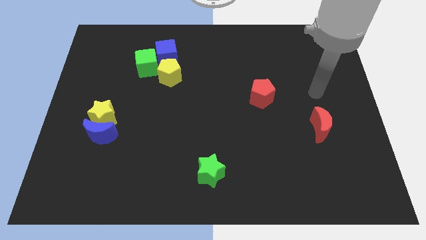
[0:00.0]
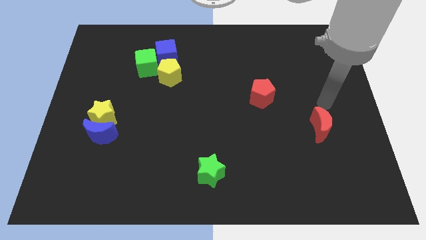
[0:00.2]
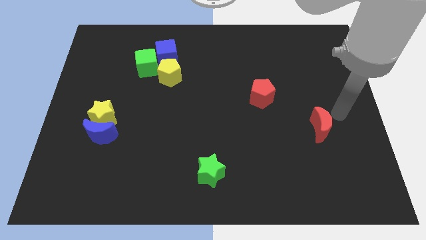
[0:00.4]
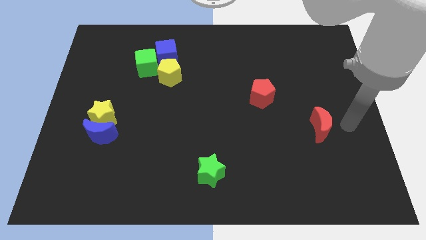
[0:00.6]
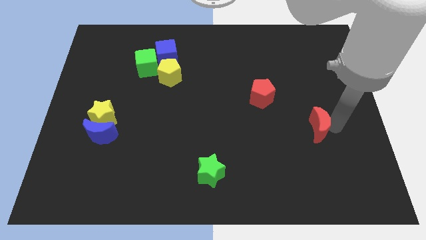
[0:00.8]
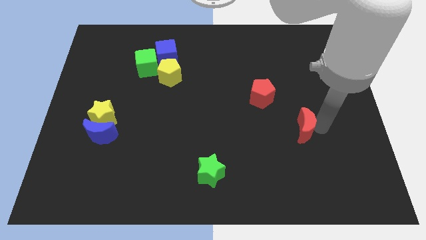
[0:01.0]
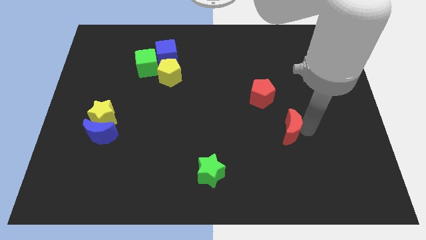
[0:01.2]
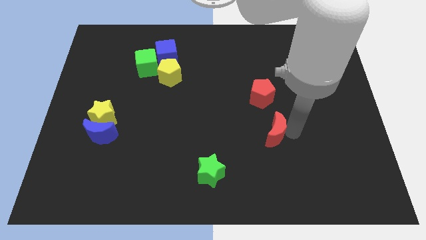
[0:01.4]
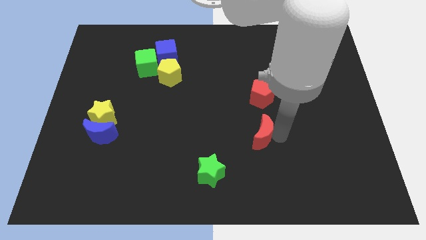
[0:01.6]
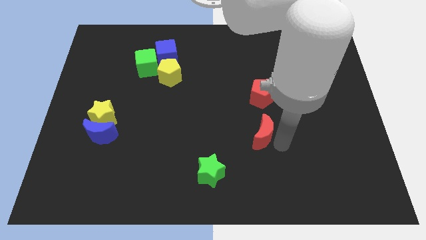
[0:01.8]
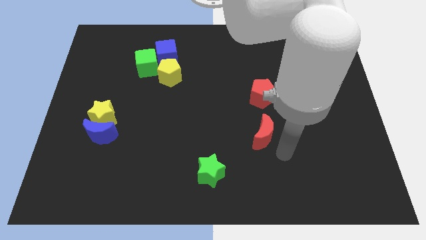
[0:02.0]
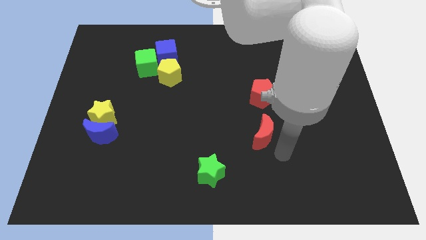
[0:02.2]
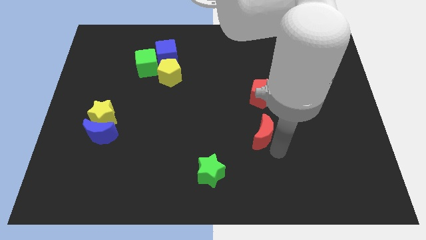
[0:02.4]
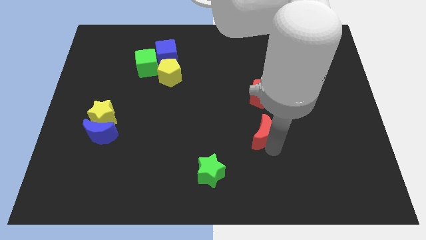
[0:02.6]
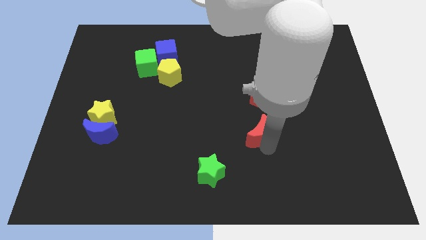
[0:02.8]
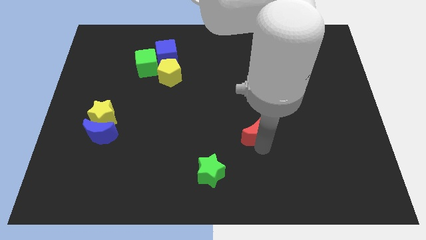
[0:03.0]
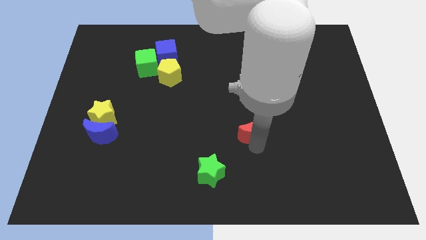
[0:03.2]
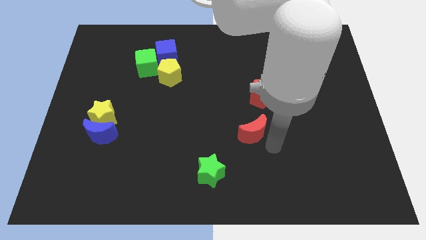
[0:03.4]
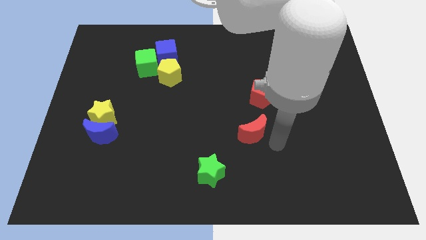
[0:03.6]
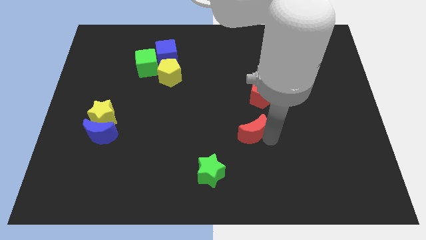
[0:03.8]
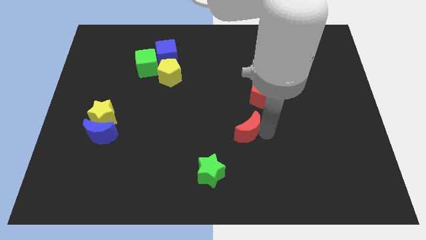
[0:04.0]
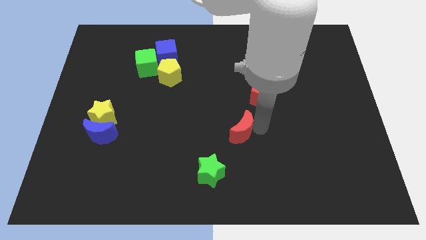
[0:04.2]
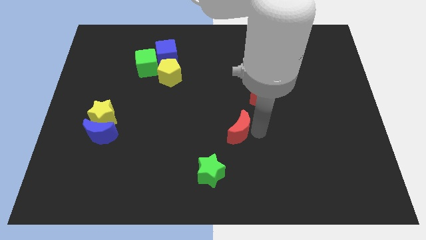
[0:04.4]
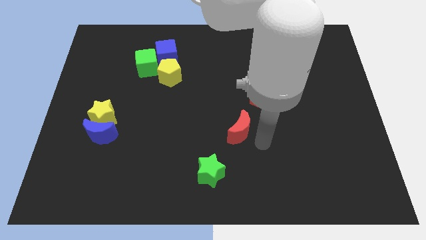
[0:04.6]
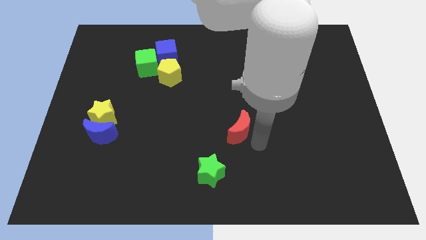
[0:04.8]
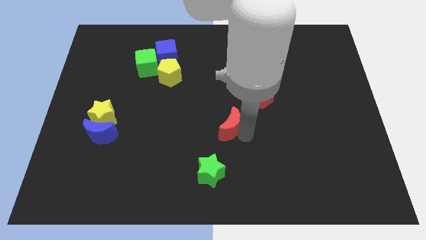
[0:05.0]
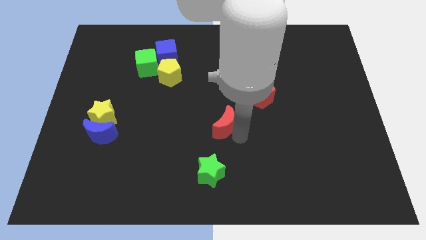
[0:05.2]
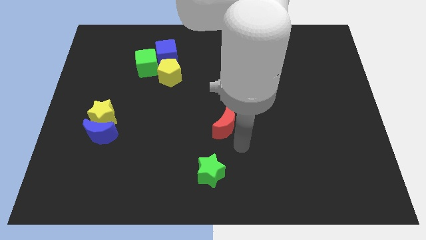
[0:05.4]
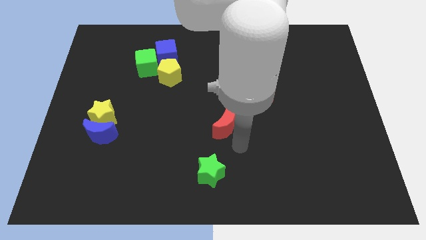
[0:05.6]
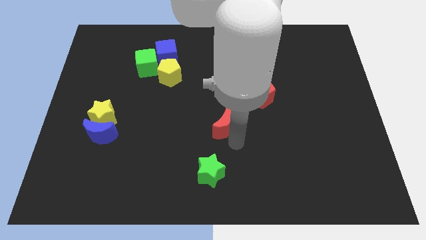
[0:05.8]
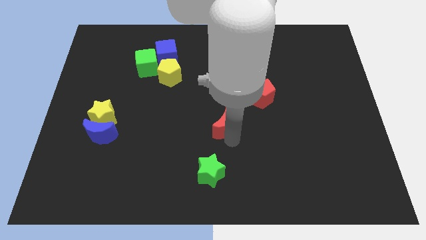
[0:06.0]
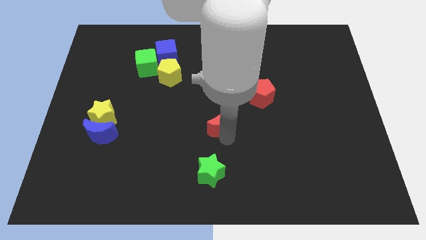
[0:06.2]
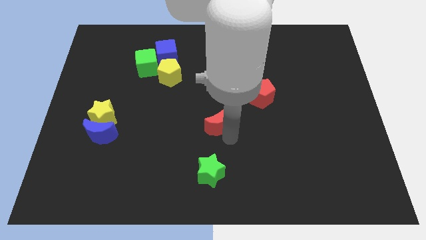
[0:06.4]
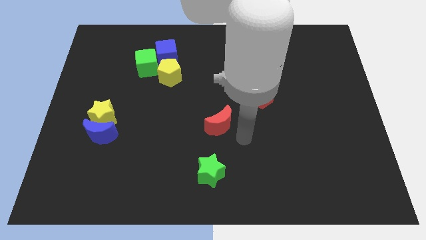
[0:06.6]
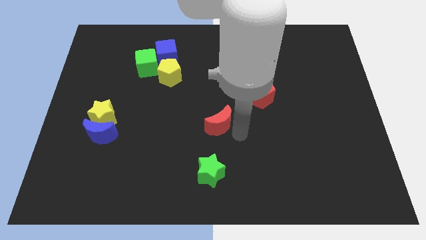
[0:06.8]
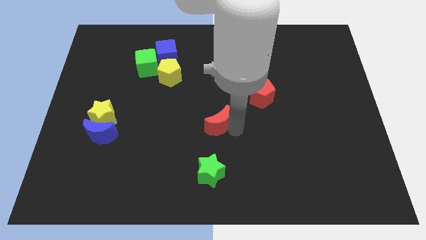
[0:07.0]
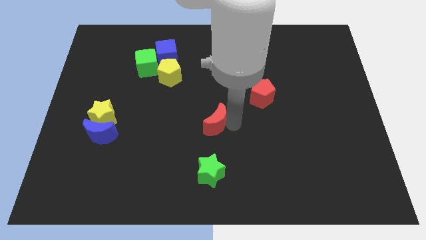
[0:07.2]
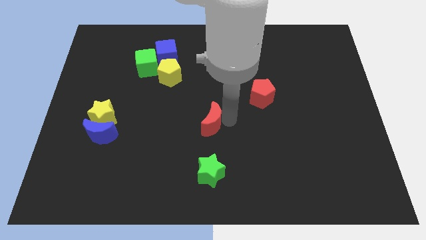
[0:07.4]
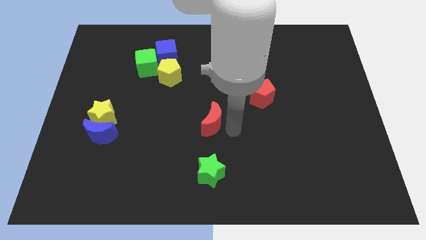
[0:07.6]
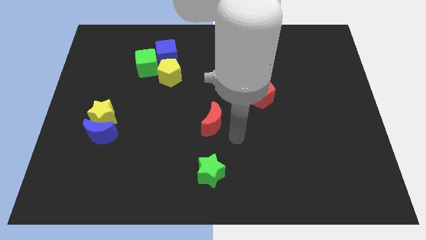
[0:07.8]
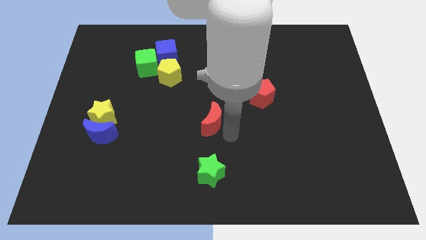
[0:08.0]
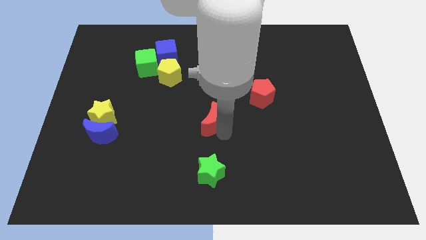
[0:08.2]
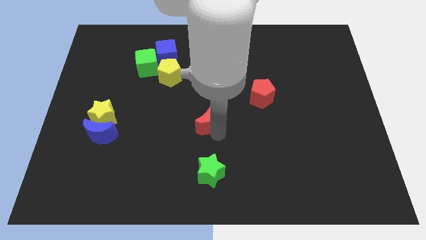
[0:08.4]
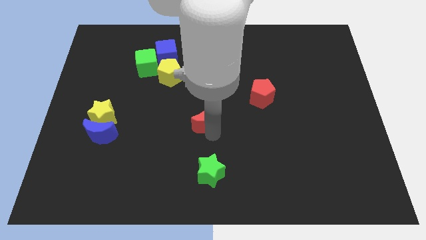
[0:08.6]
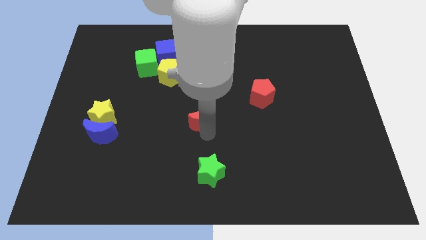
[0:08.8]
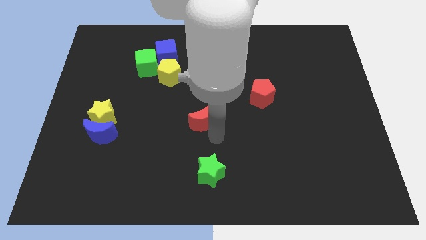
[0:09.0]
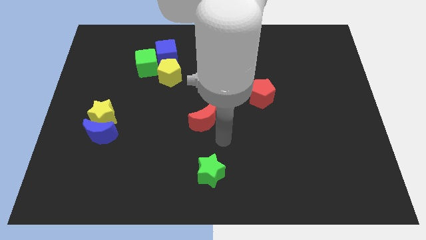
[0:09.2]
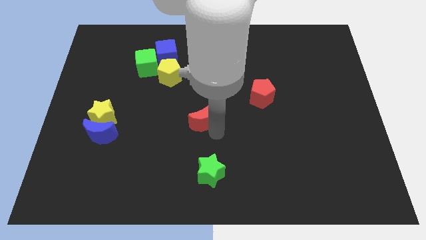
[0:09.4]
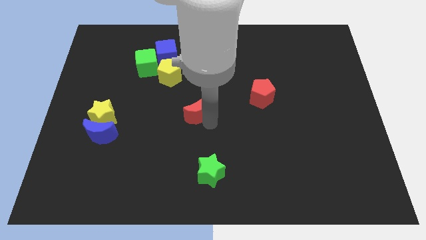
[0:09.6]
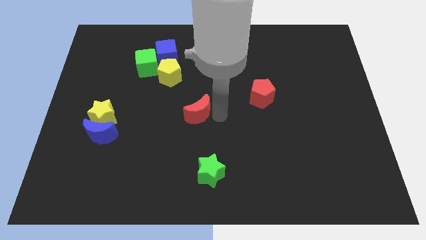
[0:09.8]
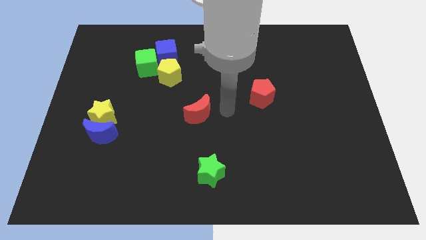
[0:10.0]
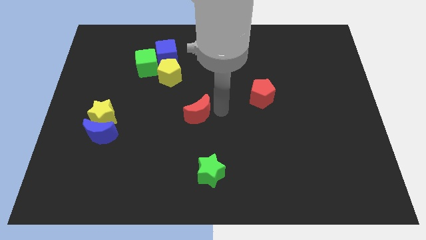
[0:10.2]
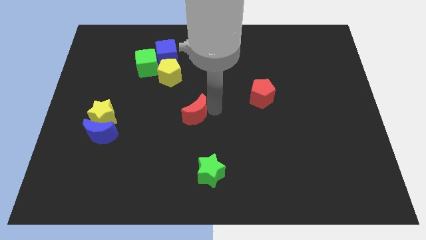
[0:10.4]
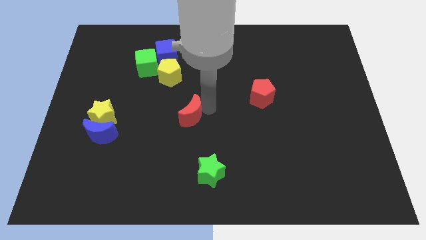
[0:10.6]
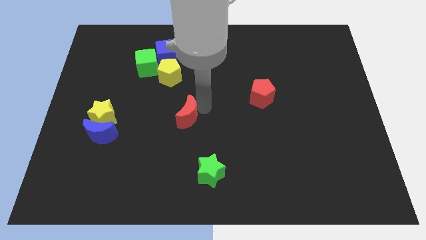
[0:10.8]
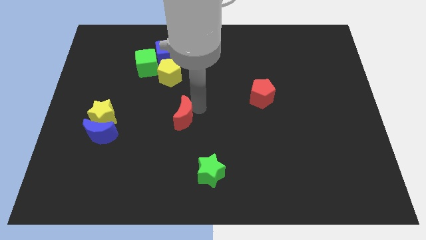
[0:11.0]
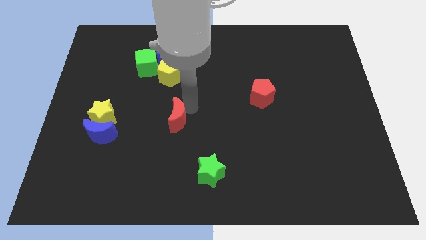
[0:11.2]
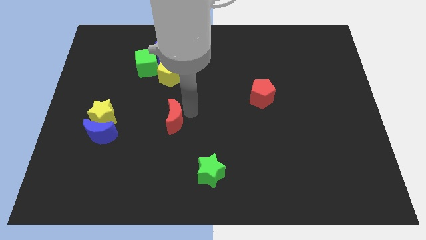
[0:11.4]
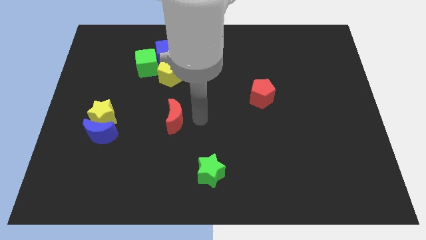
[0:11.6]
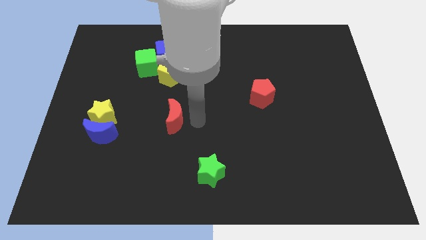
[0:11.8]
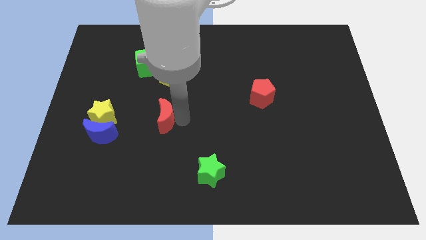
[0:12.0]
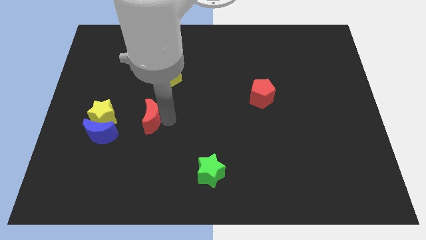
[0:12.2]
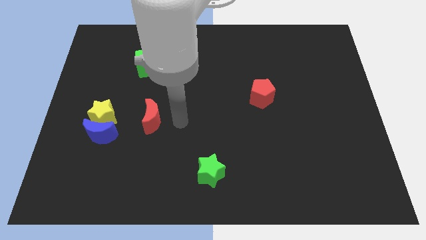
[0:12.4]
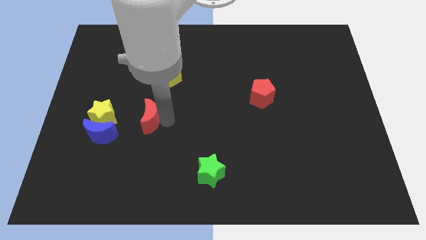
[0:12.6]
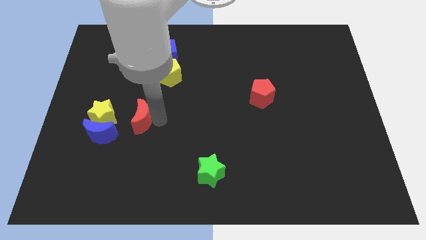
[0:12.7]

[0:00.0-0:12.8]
move the red moon to the top right of the blue moon

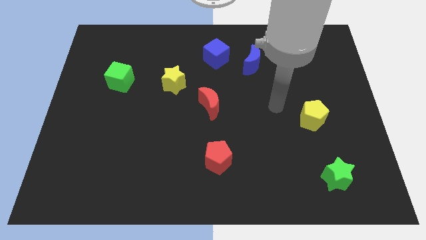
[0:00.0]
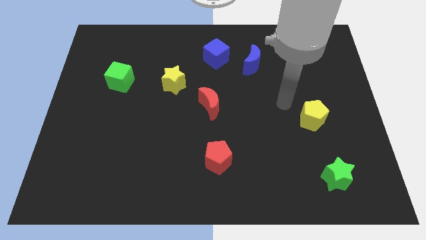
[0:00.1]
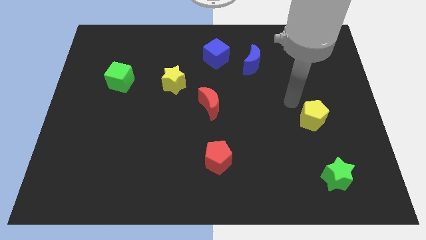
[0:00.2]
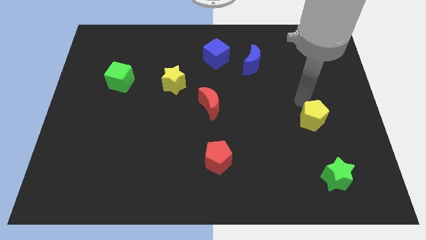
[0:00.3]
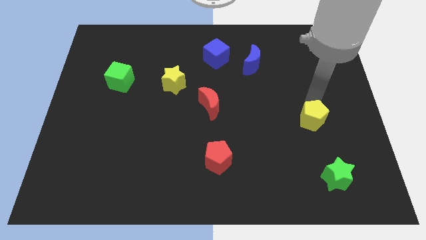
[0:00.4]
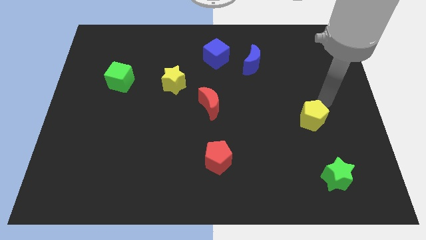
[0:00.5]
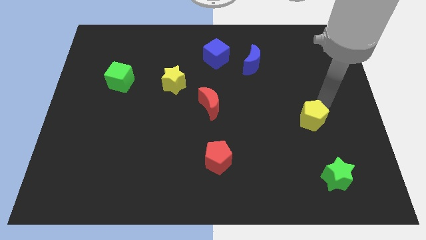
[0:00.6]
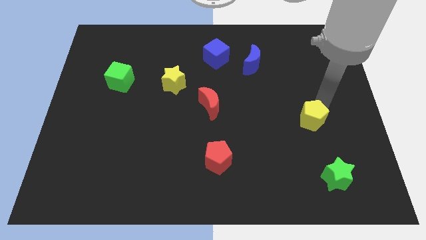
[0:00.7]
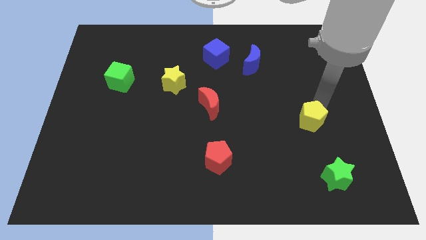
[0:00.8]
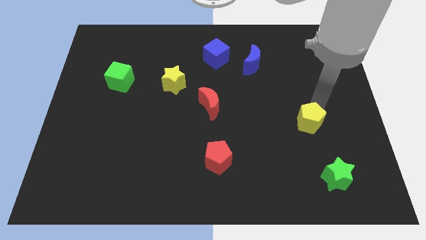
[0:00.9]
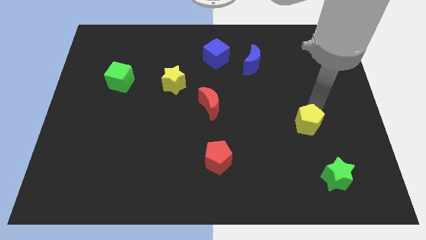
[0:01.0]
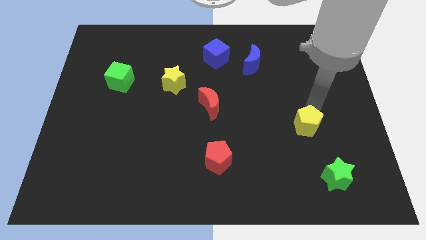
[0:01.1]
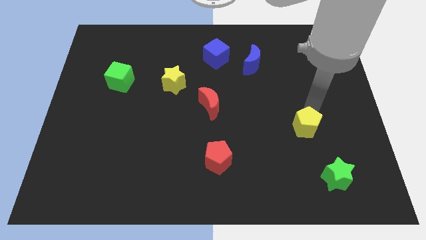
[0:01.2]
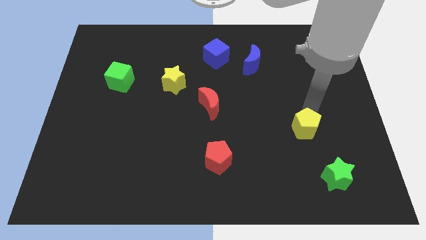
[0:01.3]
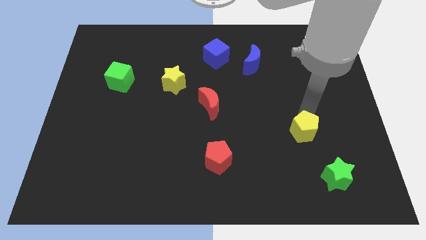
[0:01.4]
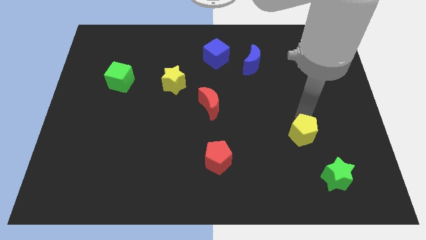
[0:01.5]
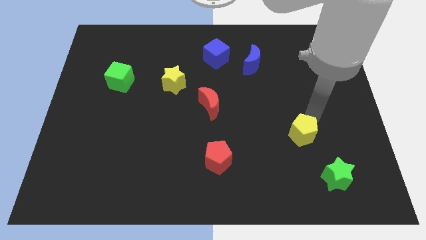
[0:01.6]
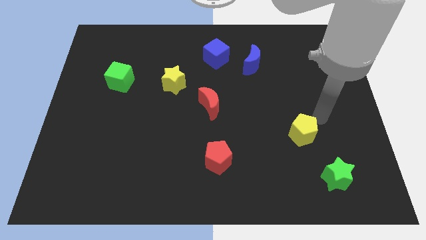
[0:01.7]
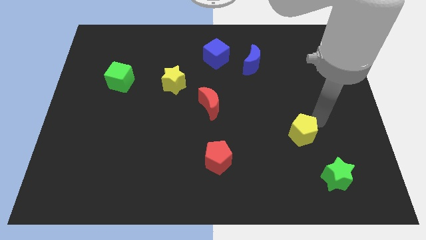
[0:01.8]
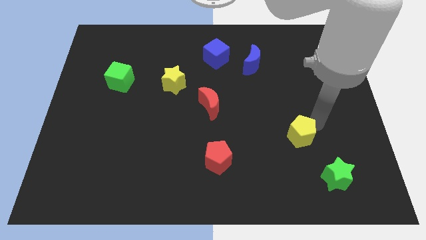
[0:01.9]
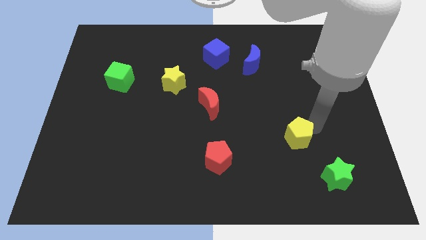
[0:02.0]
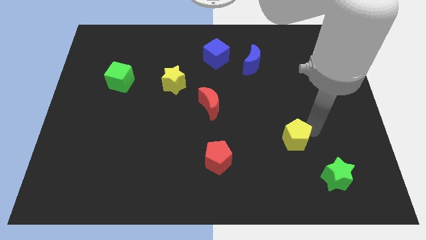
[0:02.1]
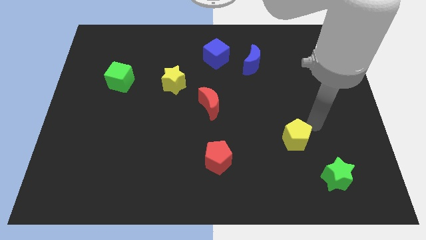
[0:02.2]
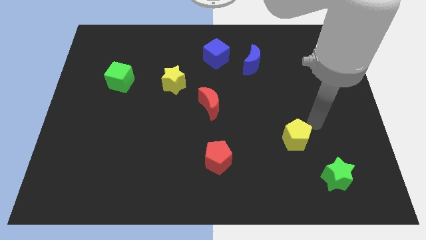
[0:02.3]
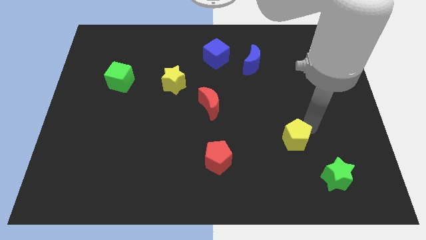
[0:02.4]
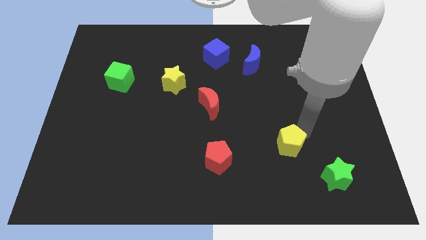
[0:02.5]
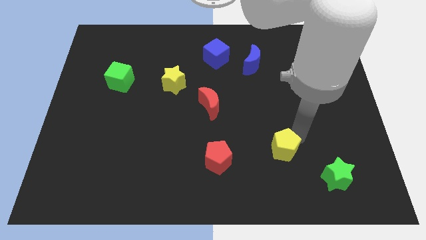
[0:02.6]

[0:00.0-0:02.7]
move the yellow pentagon just right of the red pentagon
